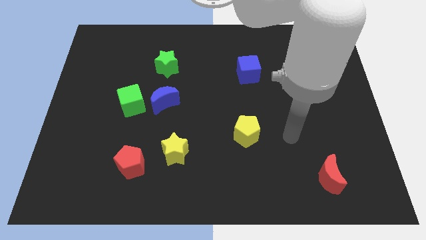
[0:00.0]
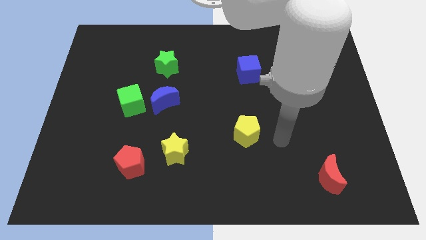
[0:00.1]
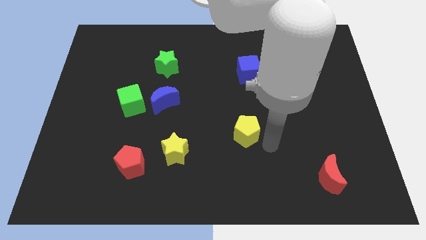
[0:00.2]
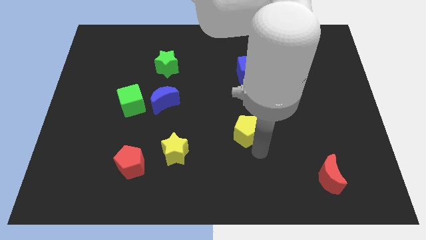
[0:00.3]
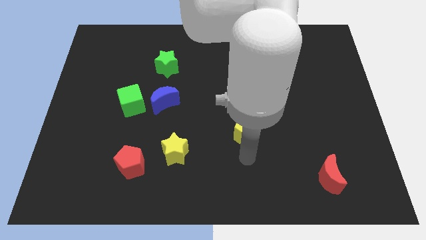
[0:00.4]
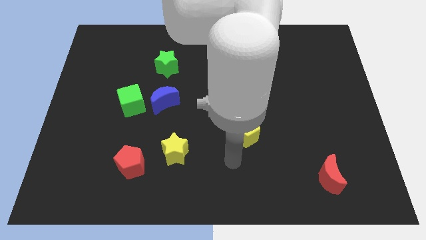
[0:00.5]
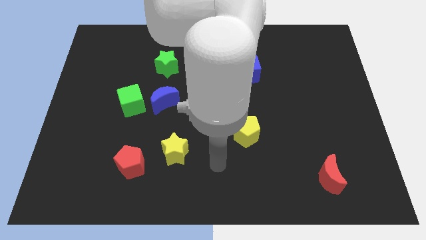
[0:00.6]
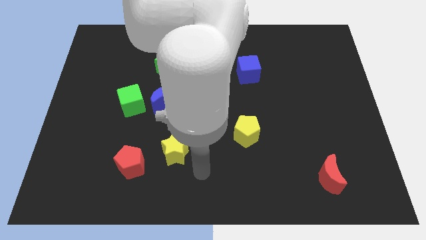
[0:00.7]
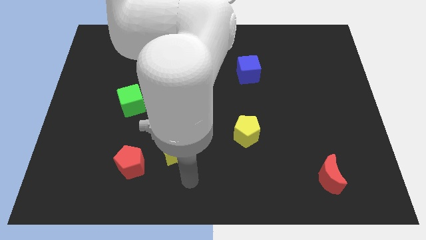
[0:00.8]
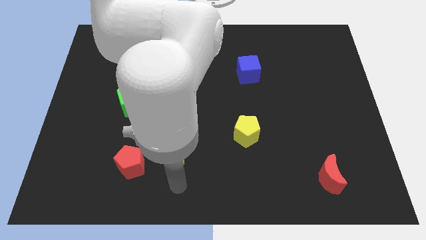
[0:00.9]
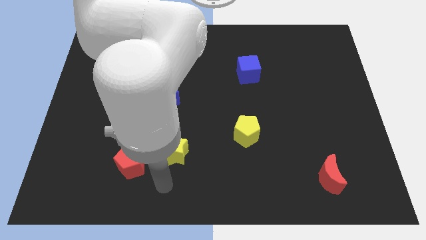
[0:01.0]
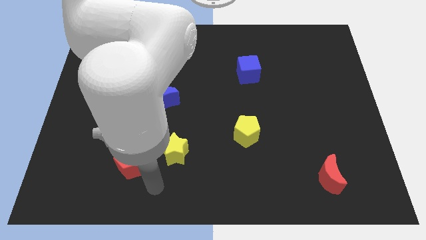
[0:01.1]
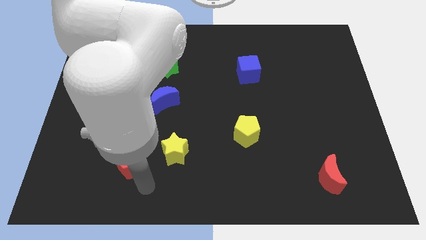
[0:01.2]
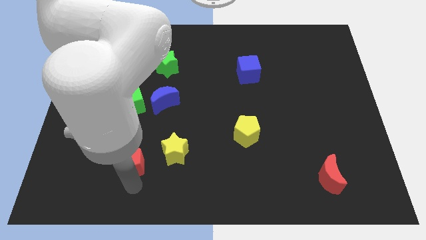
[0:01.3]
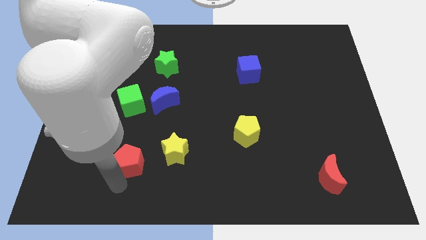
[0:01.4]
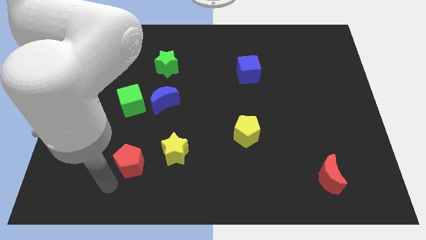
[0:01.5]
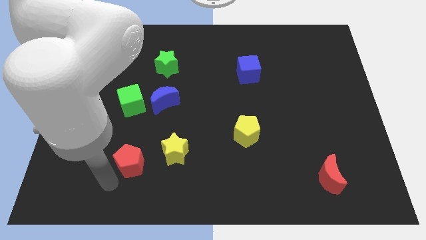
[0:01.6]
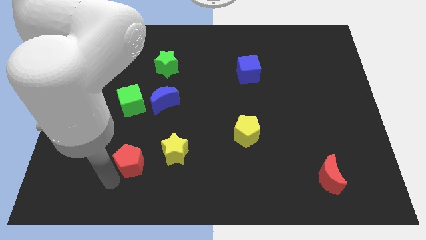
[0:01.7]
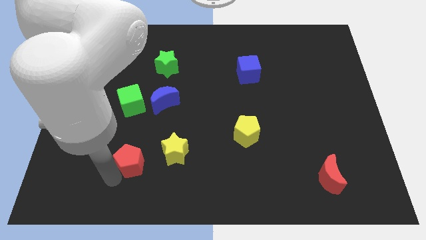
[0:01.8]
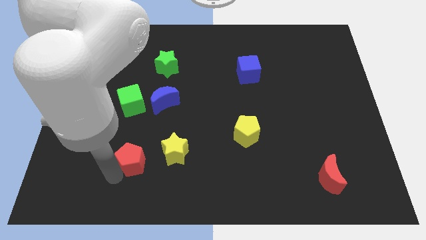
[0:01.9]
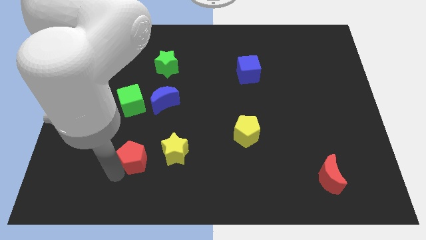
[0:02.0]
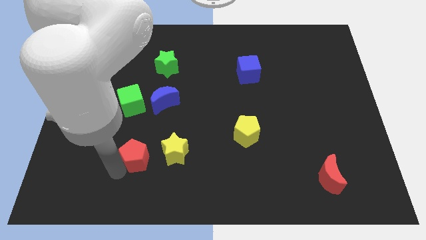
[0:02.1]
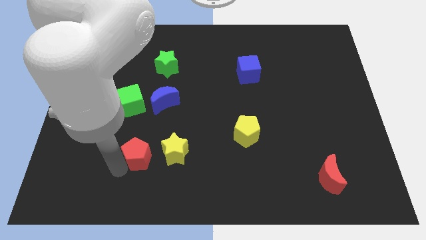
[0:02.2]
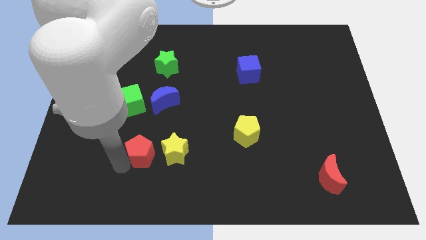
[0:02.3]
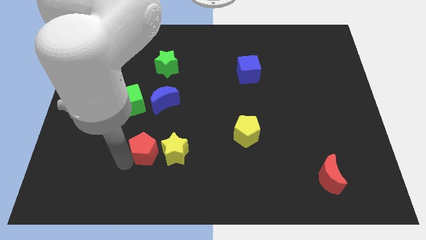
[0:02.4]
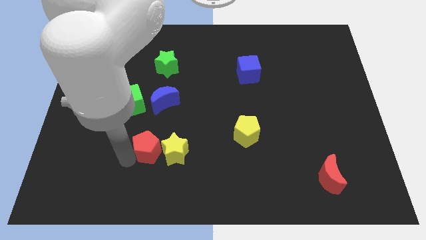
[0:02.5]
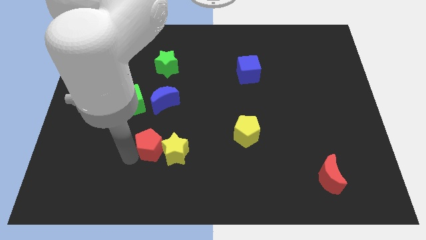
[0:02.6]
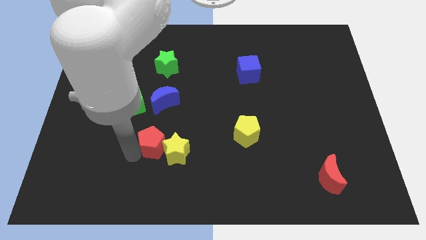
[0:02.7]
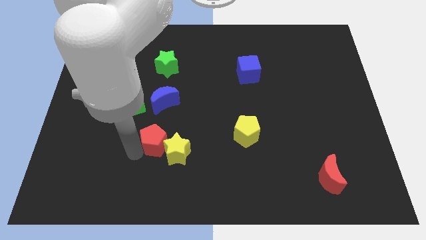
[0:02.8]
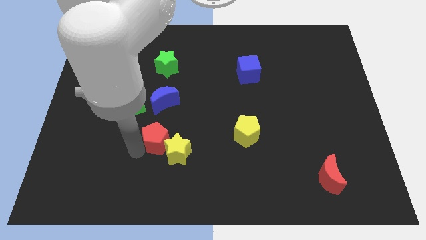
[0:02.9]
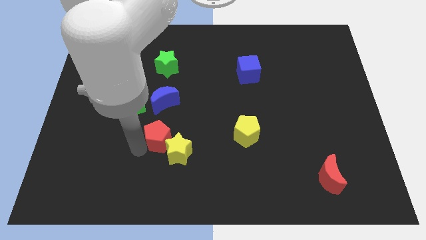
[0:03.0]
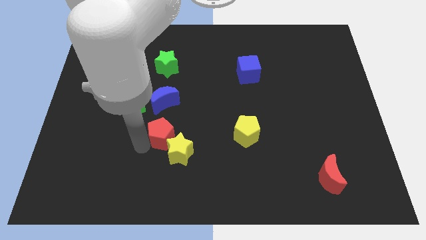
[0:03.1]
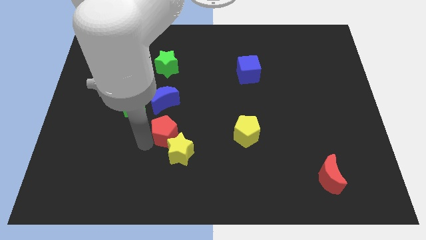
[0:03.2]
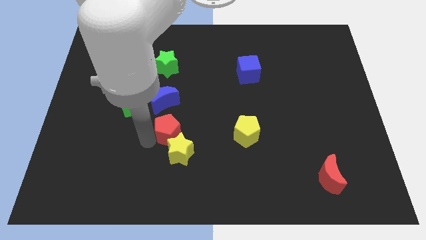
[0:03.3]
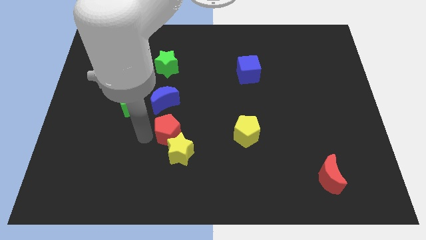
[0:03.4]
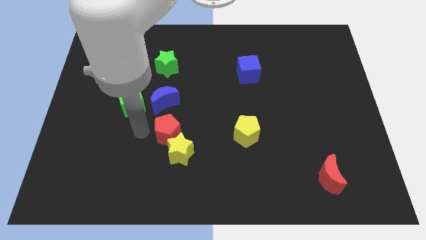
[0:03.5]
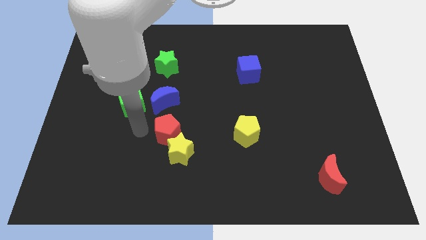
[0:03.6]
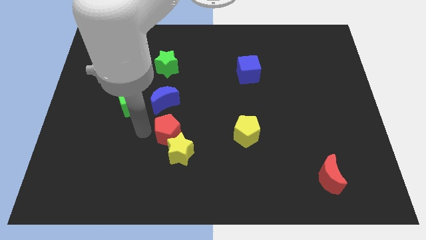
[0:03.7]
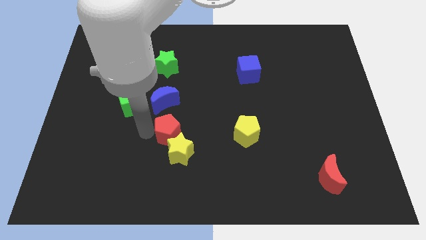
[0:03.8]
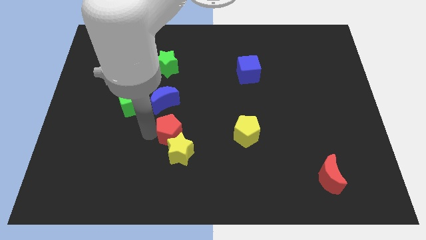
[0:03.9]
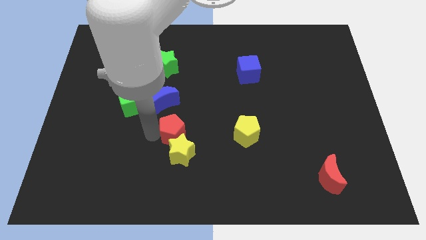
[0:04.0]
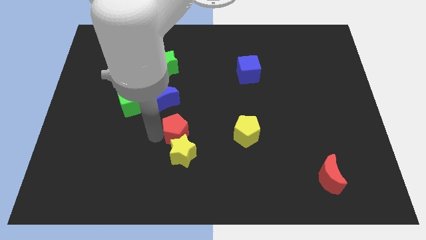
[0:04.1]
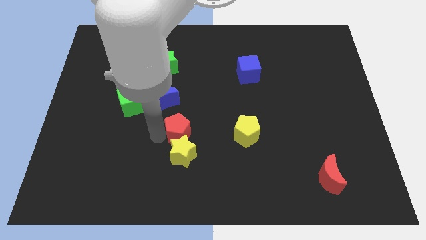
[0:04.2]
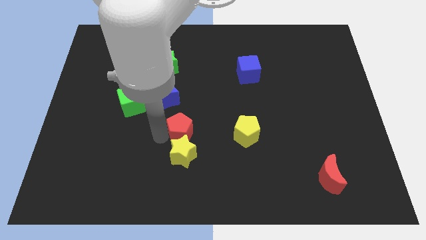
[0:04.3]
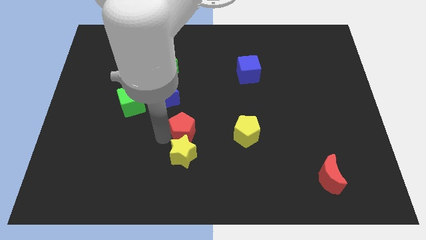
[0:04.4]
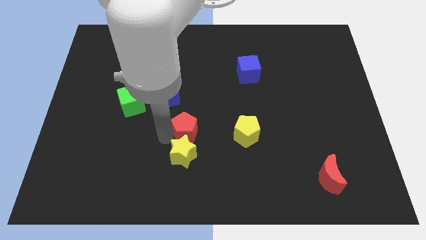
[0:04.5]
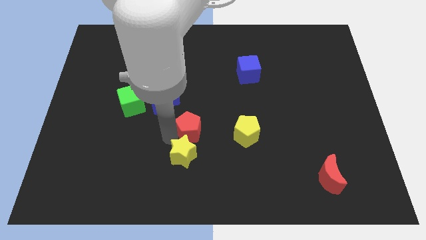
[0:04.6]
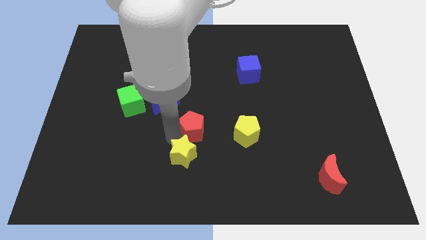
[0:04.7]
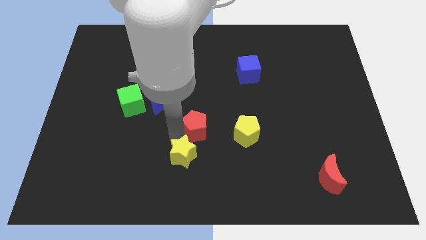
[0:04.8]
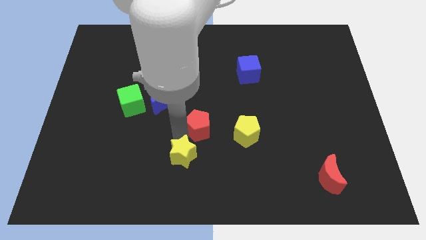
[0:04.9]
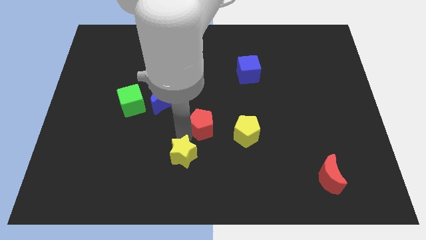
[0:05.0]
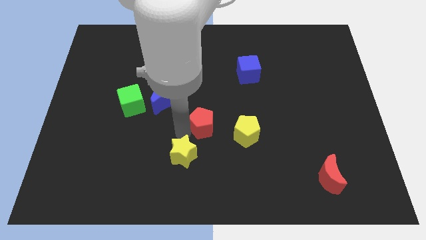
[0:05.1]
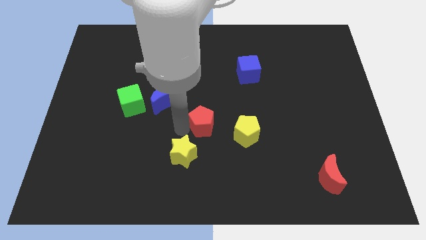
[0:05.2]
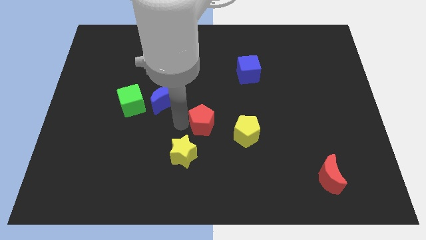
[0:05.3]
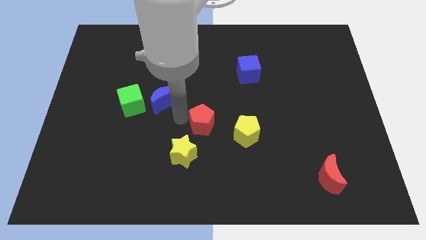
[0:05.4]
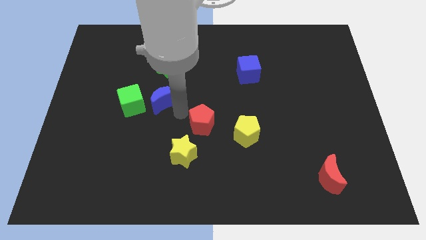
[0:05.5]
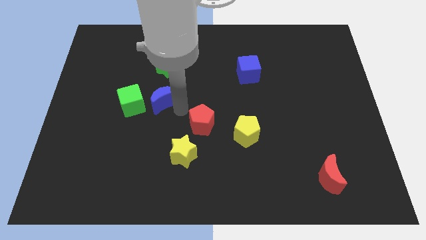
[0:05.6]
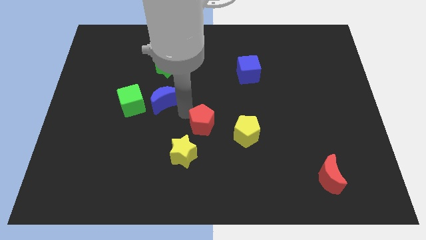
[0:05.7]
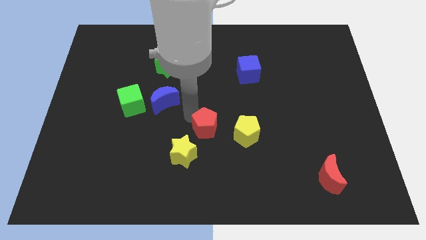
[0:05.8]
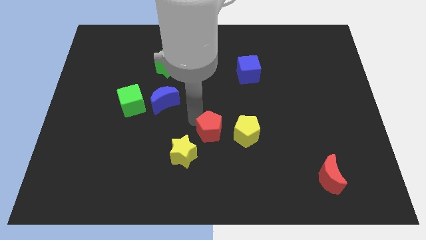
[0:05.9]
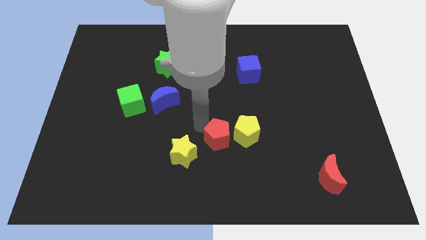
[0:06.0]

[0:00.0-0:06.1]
move the red pentagon to the yellow pentagon

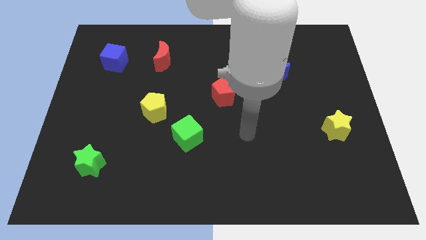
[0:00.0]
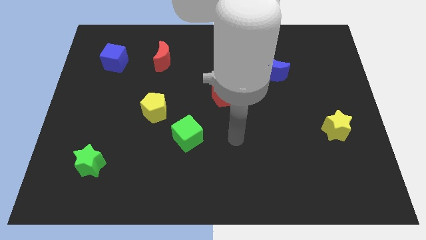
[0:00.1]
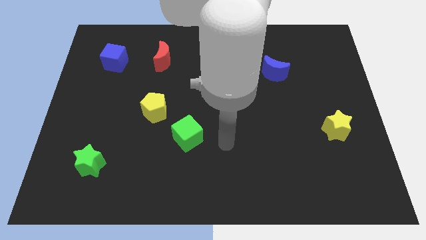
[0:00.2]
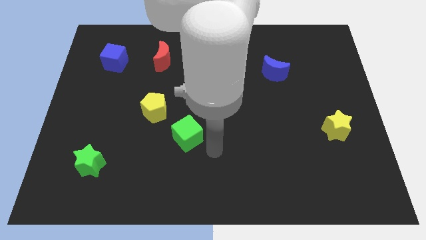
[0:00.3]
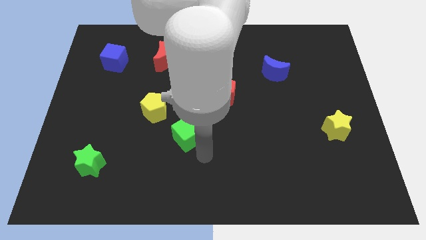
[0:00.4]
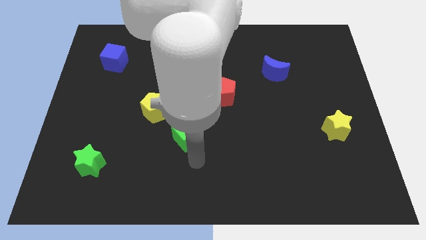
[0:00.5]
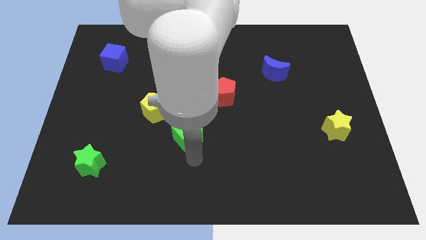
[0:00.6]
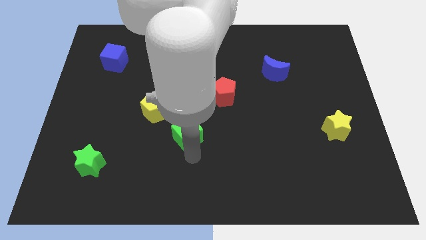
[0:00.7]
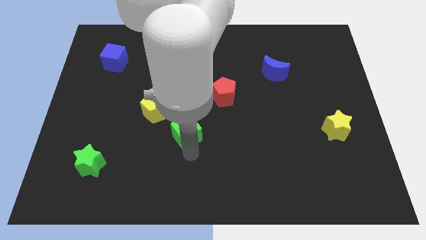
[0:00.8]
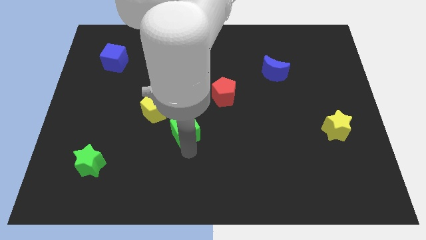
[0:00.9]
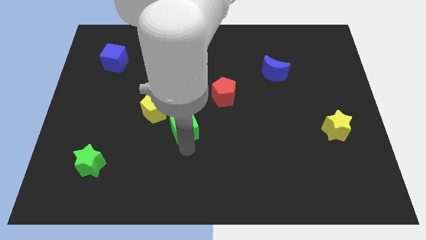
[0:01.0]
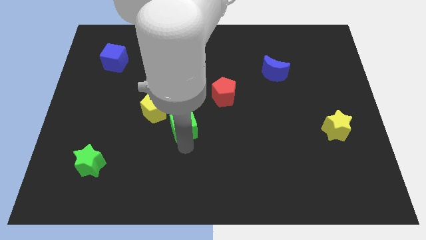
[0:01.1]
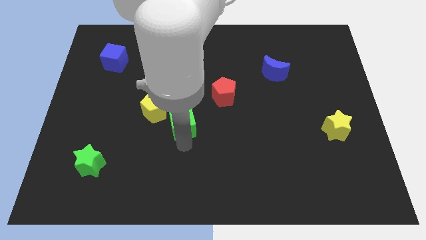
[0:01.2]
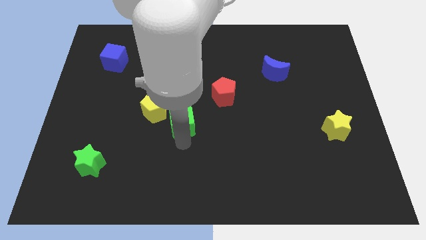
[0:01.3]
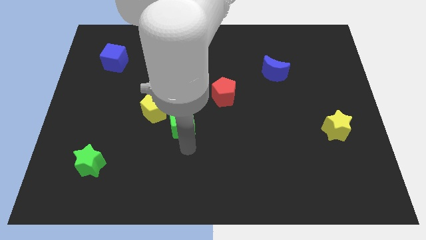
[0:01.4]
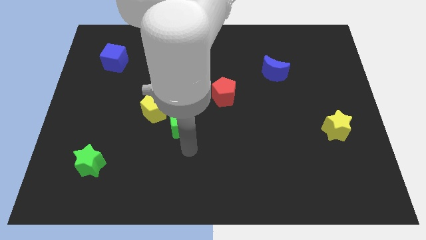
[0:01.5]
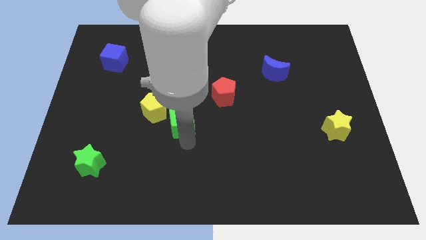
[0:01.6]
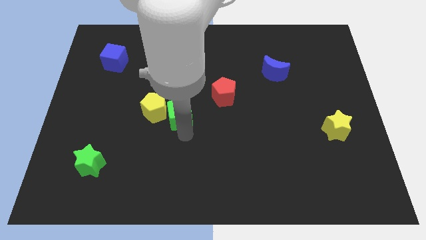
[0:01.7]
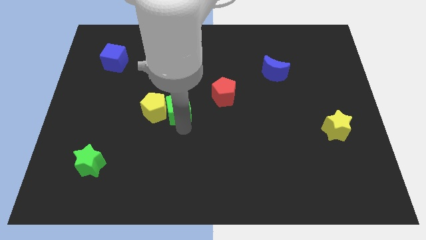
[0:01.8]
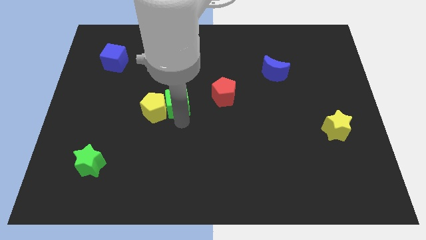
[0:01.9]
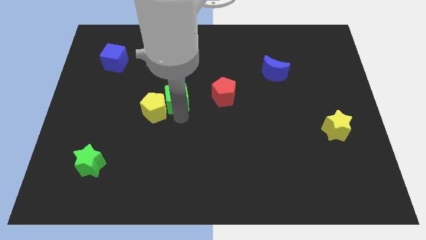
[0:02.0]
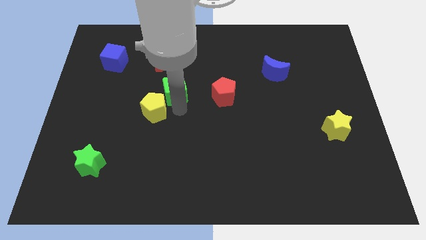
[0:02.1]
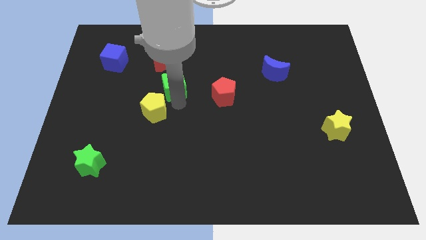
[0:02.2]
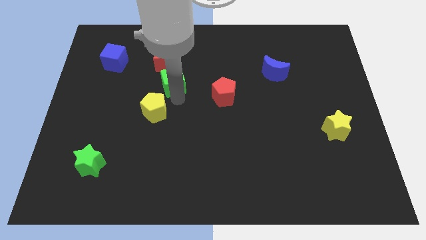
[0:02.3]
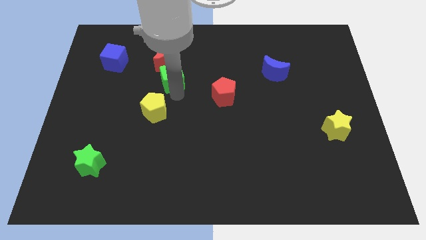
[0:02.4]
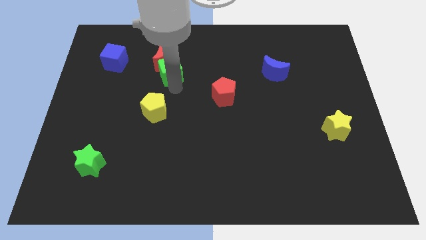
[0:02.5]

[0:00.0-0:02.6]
move the green cube next to the red moon
